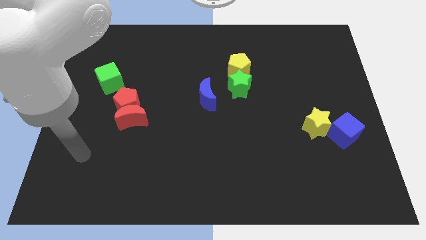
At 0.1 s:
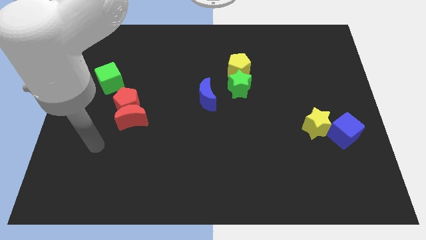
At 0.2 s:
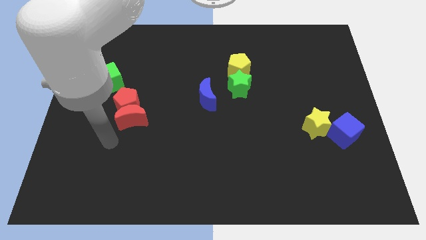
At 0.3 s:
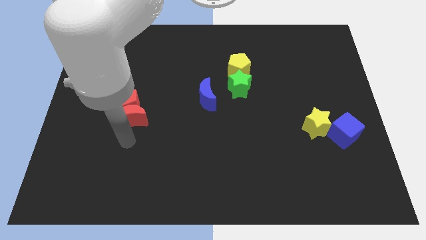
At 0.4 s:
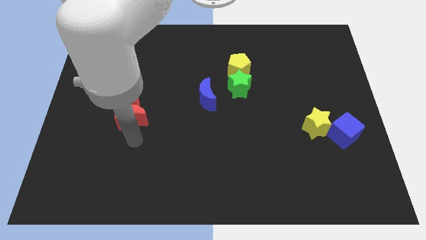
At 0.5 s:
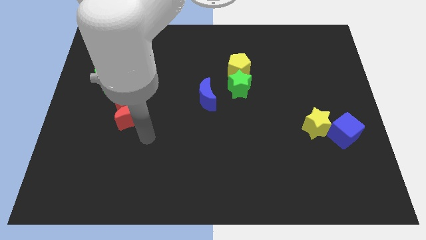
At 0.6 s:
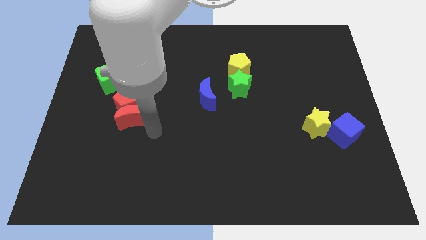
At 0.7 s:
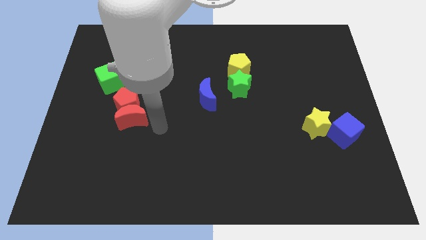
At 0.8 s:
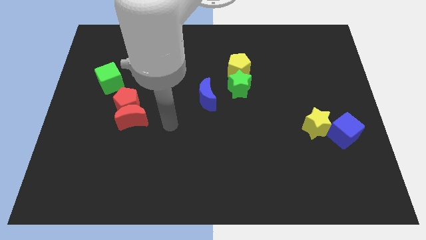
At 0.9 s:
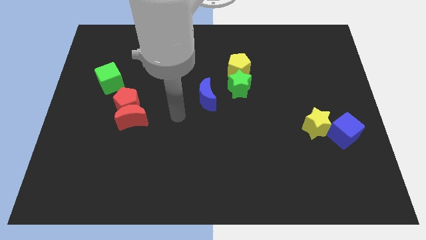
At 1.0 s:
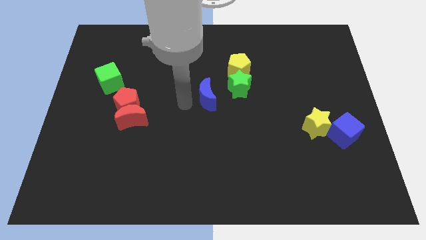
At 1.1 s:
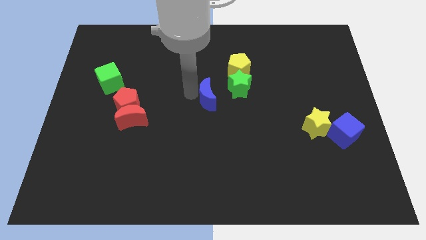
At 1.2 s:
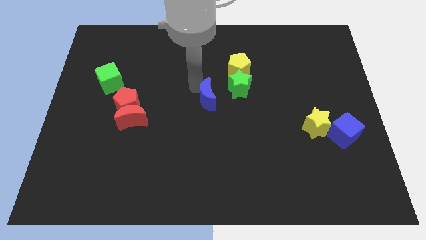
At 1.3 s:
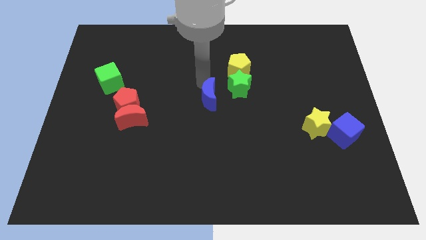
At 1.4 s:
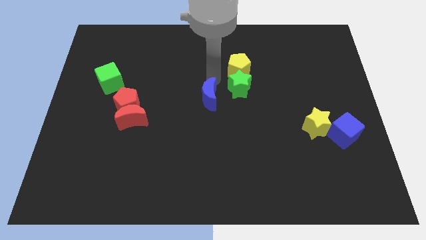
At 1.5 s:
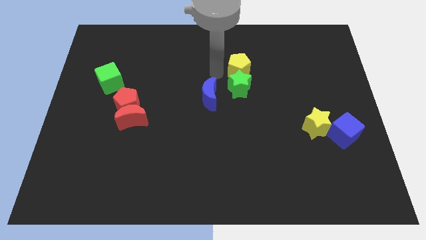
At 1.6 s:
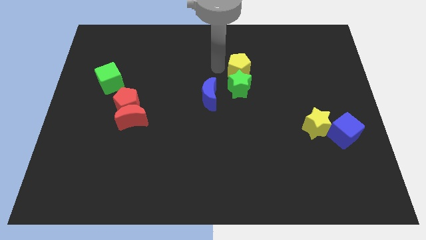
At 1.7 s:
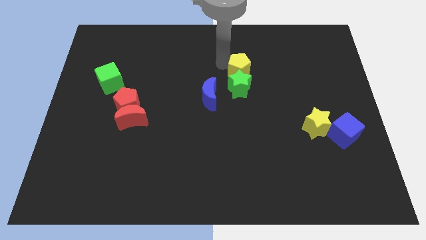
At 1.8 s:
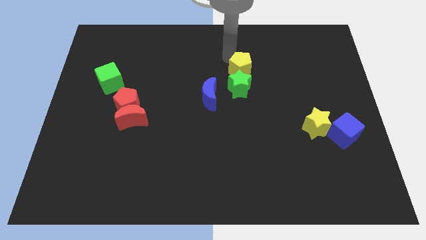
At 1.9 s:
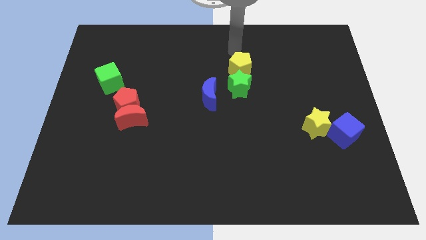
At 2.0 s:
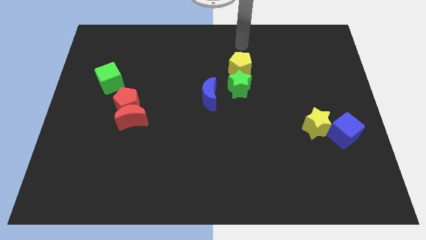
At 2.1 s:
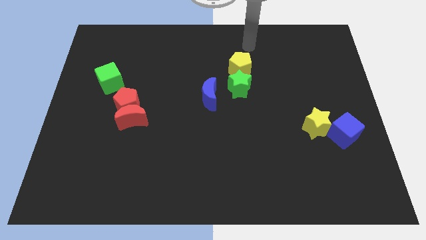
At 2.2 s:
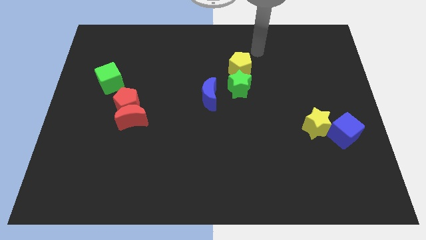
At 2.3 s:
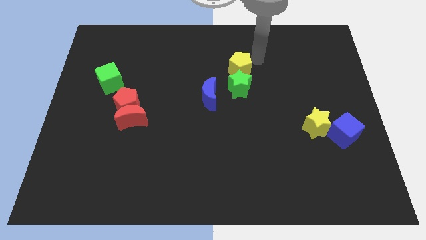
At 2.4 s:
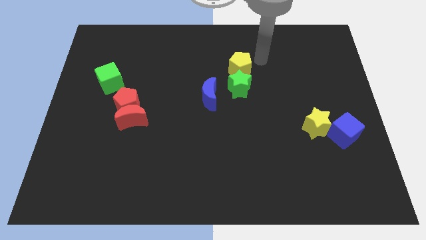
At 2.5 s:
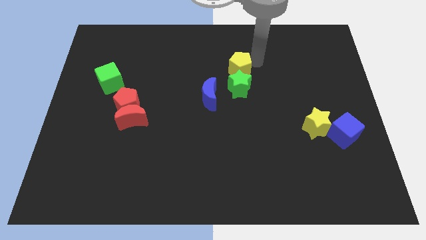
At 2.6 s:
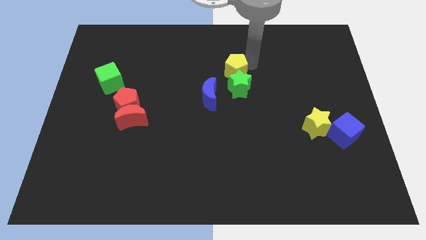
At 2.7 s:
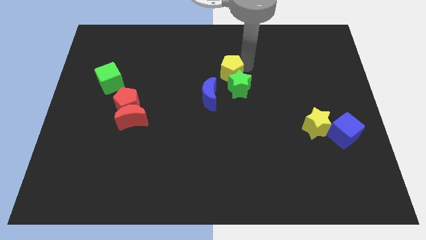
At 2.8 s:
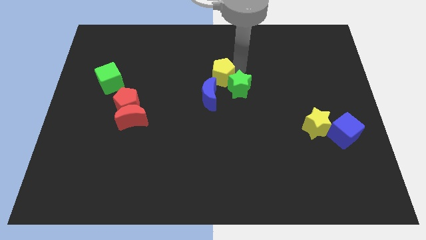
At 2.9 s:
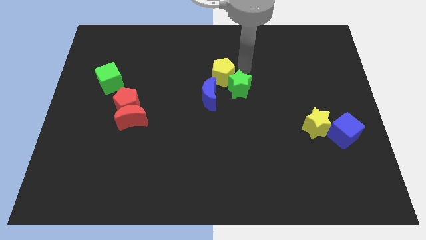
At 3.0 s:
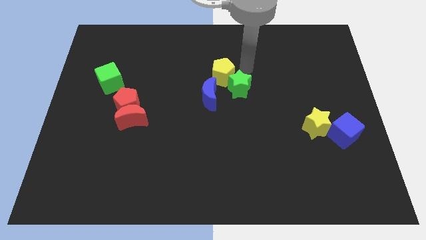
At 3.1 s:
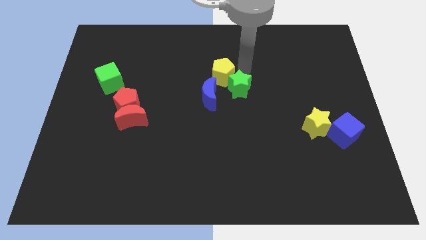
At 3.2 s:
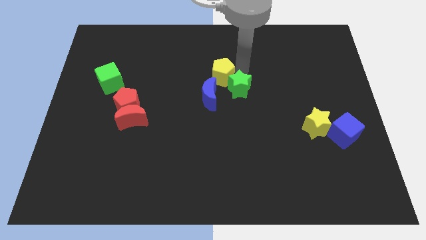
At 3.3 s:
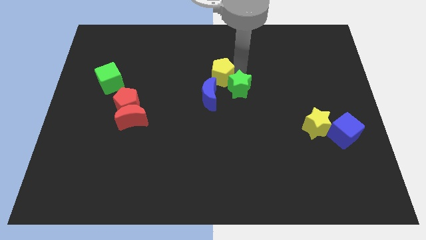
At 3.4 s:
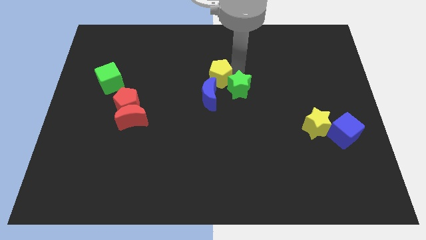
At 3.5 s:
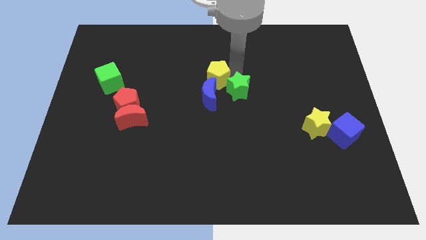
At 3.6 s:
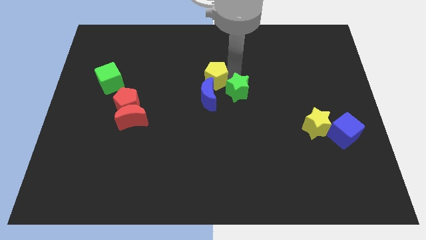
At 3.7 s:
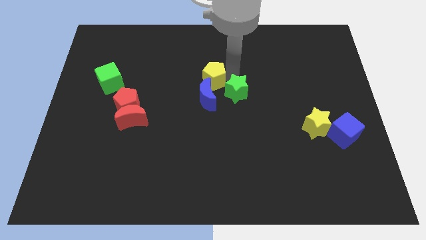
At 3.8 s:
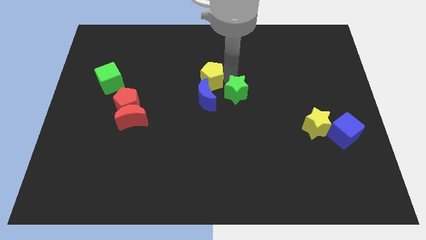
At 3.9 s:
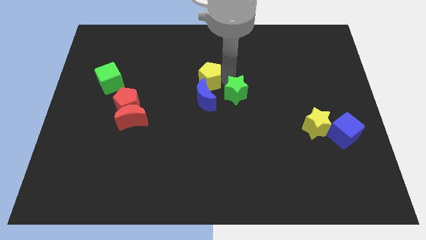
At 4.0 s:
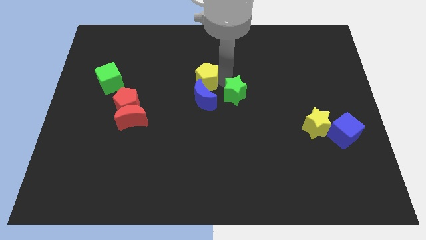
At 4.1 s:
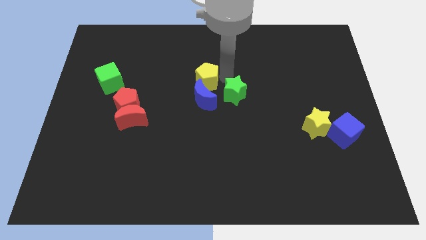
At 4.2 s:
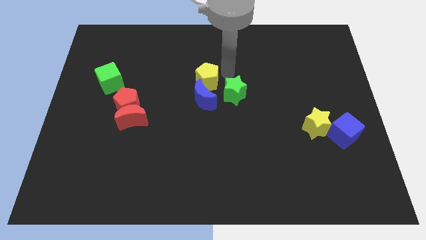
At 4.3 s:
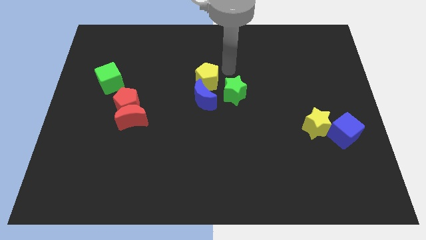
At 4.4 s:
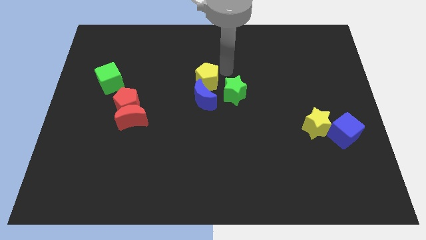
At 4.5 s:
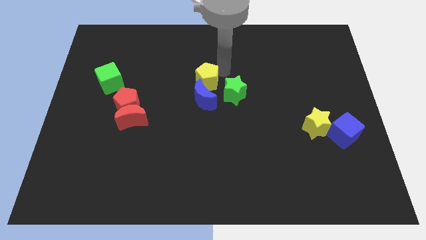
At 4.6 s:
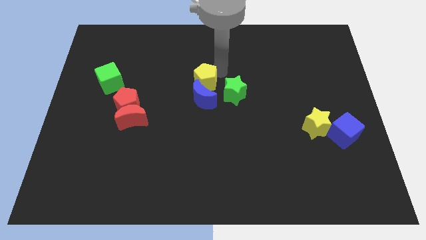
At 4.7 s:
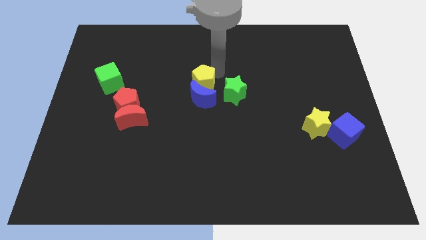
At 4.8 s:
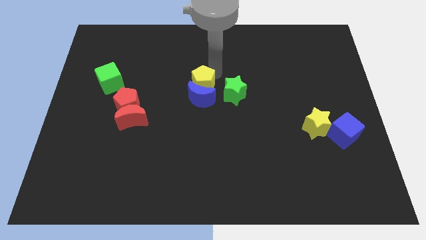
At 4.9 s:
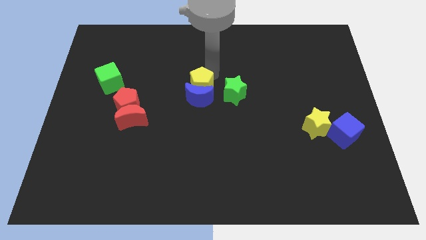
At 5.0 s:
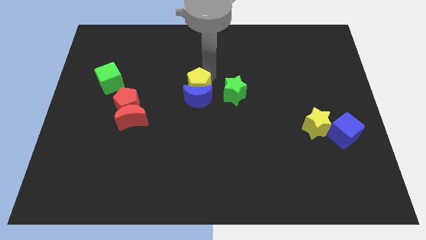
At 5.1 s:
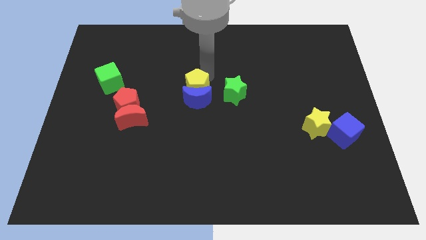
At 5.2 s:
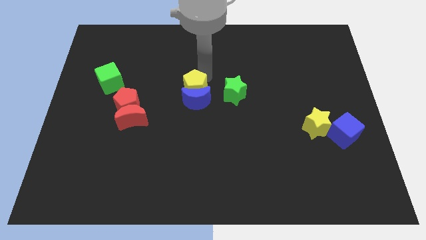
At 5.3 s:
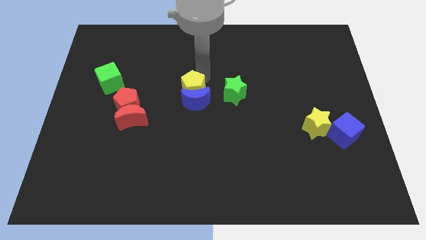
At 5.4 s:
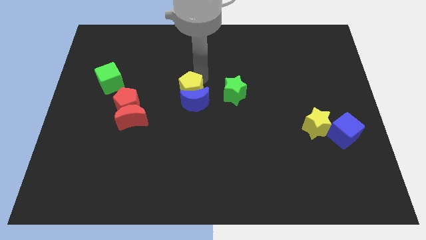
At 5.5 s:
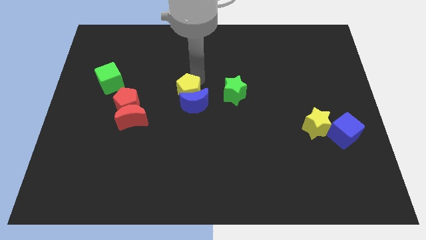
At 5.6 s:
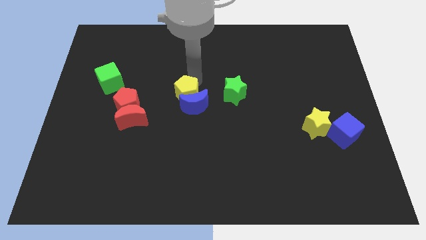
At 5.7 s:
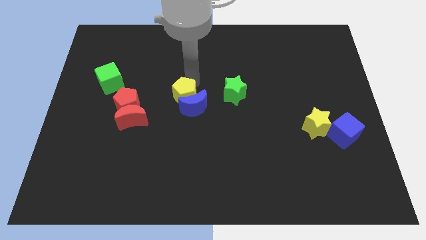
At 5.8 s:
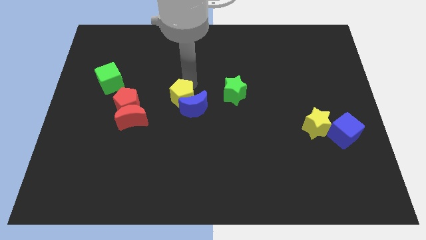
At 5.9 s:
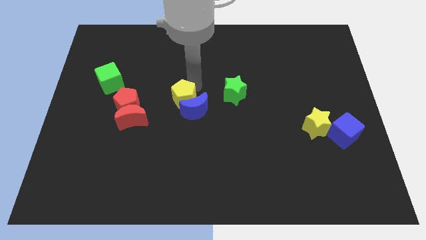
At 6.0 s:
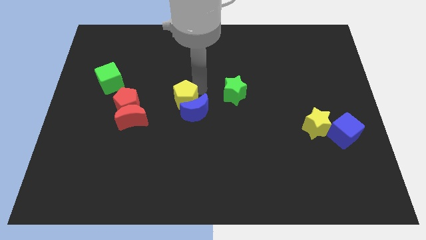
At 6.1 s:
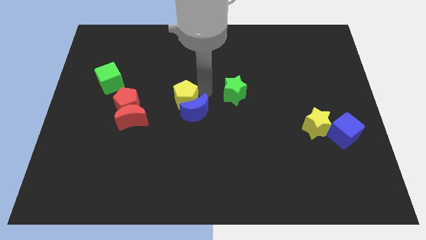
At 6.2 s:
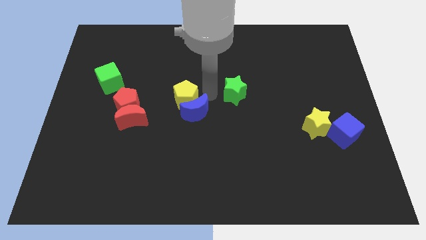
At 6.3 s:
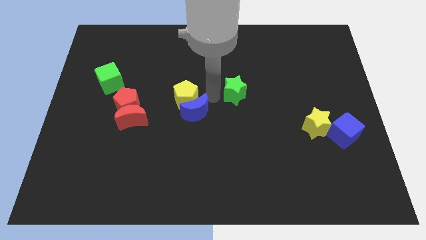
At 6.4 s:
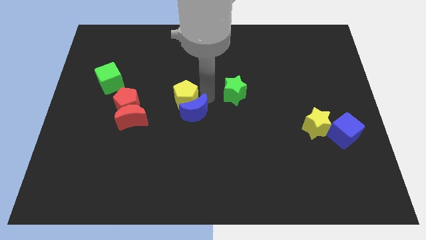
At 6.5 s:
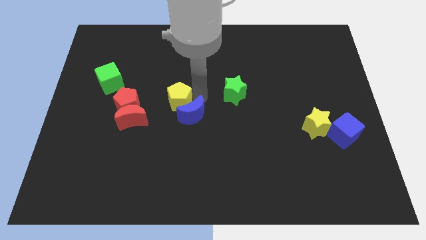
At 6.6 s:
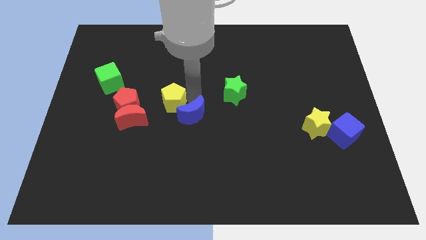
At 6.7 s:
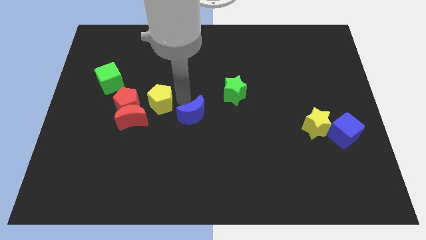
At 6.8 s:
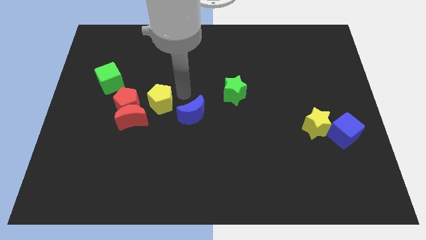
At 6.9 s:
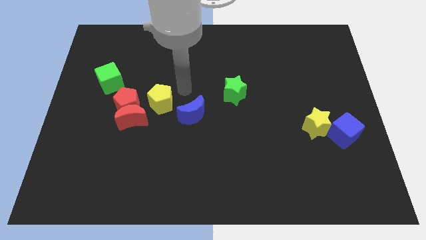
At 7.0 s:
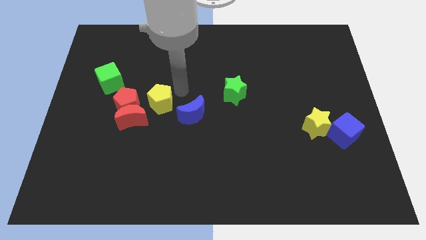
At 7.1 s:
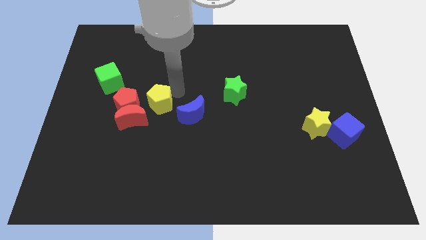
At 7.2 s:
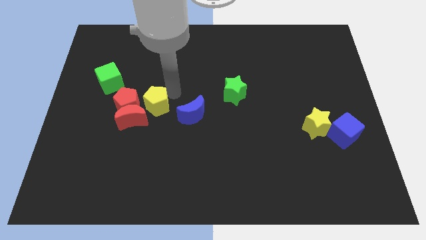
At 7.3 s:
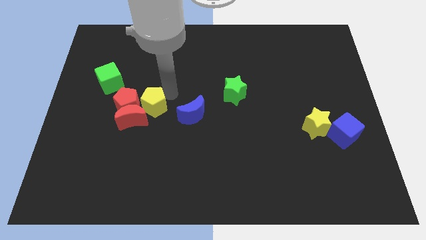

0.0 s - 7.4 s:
move the yellow pentagon to the red moon
